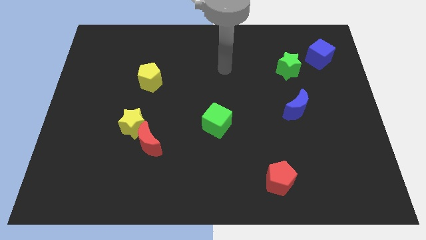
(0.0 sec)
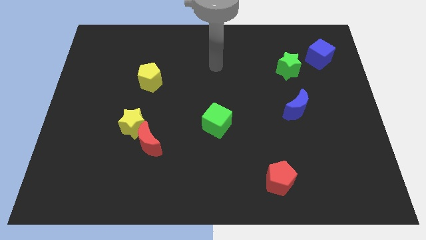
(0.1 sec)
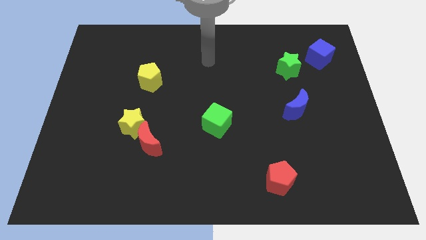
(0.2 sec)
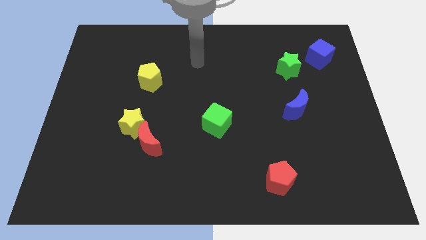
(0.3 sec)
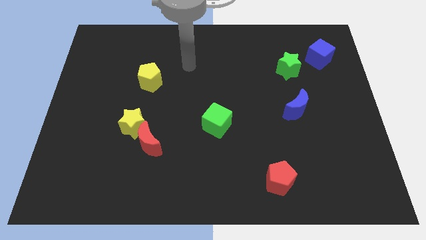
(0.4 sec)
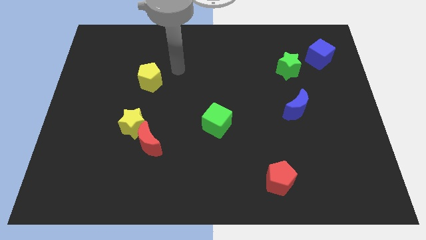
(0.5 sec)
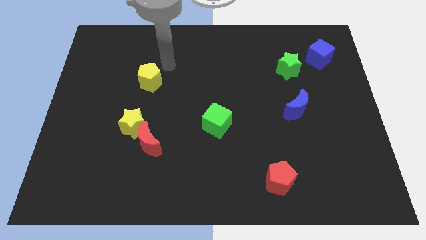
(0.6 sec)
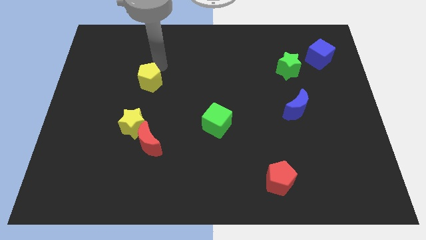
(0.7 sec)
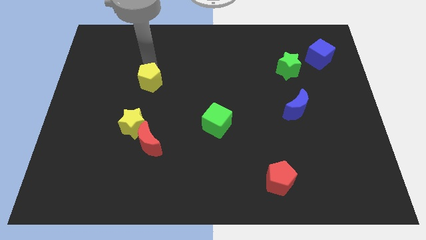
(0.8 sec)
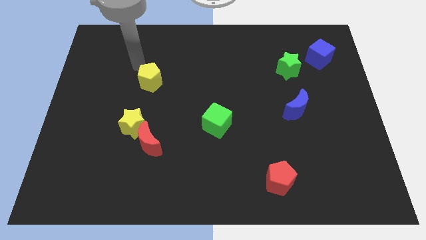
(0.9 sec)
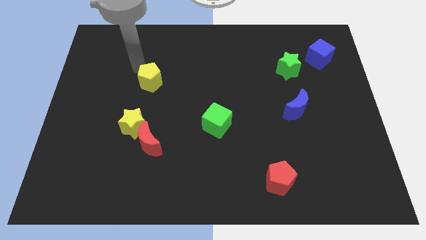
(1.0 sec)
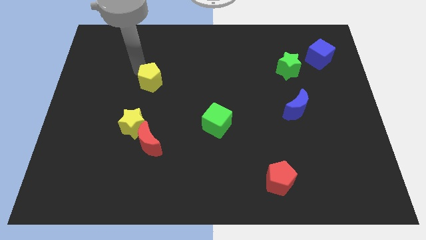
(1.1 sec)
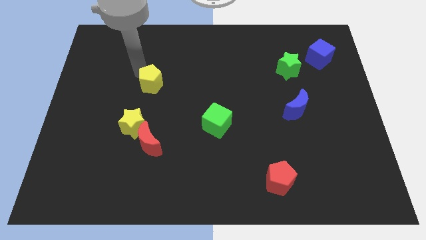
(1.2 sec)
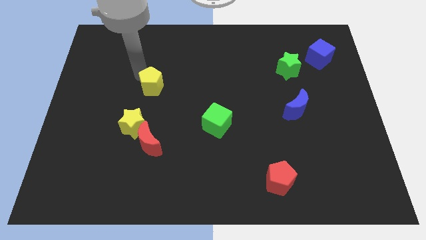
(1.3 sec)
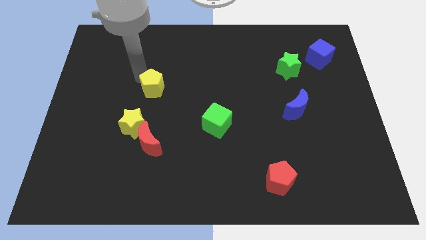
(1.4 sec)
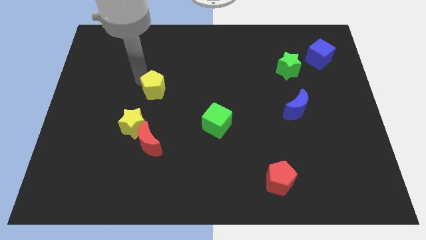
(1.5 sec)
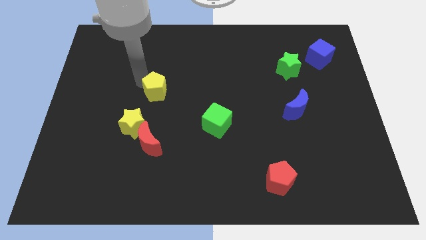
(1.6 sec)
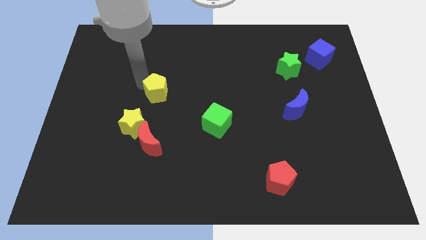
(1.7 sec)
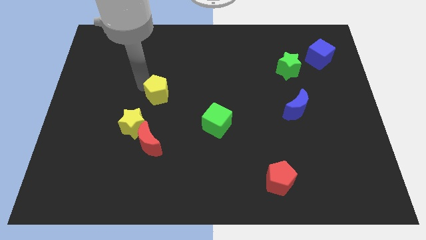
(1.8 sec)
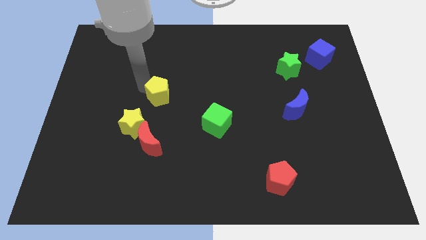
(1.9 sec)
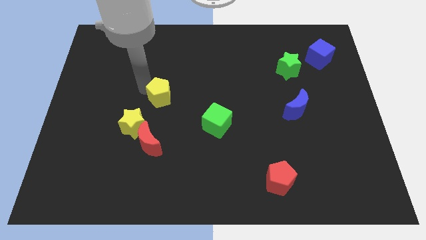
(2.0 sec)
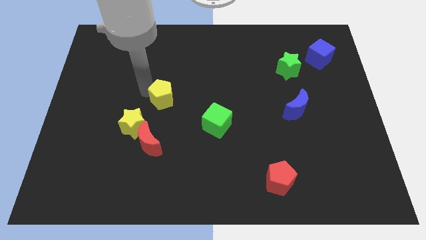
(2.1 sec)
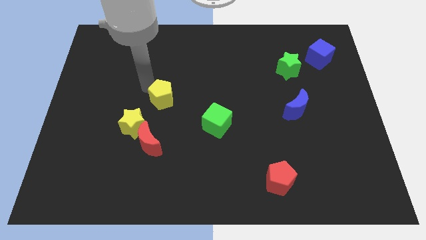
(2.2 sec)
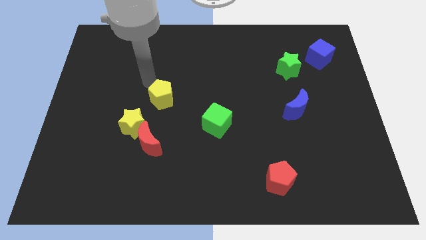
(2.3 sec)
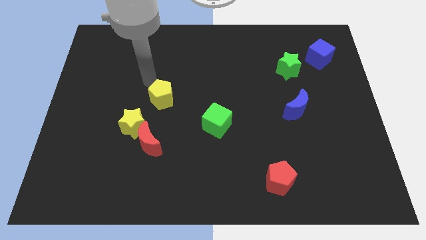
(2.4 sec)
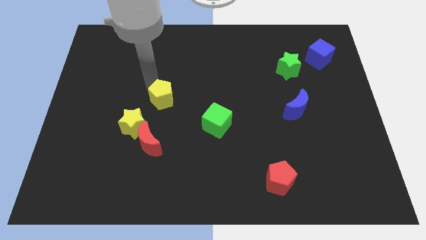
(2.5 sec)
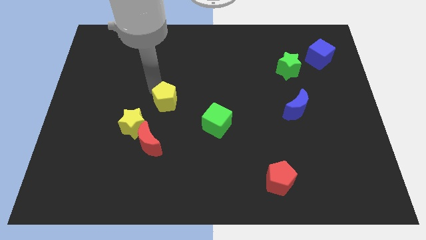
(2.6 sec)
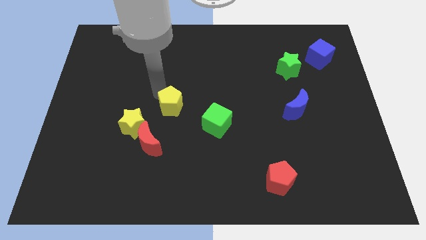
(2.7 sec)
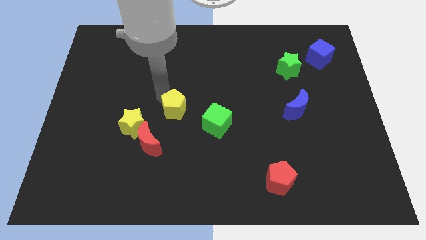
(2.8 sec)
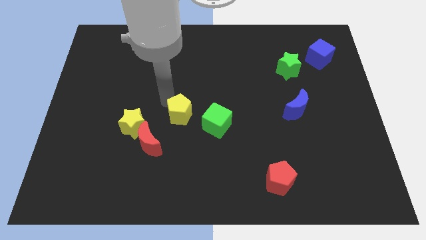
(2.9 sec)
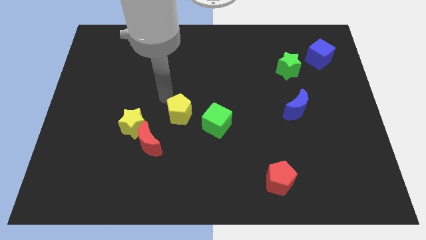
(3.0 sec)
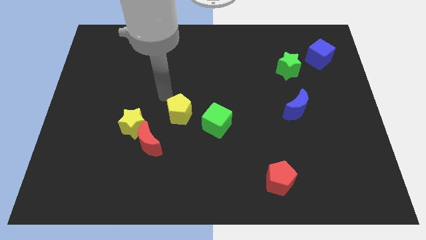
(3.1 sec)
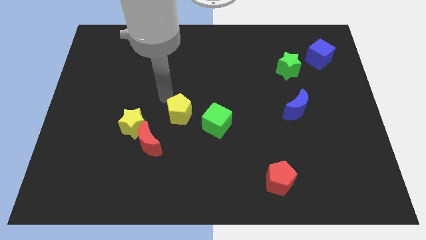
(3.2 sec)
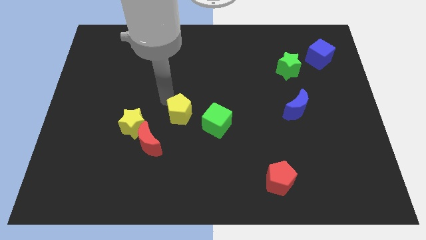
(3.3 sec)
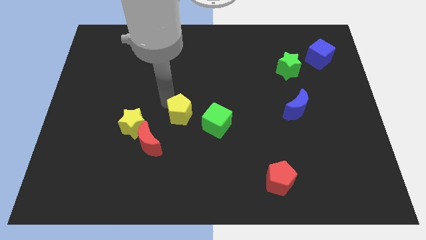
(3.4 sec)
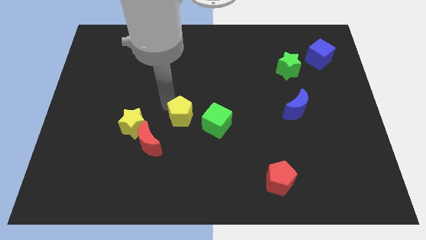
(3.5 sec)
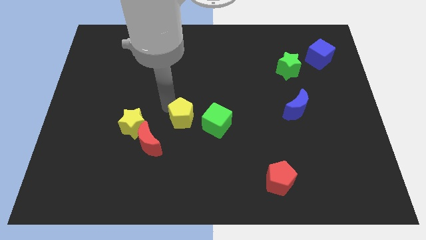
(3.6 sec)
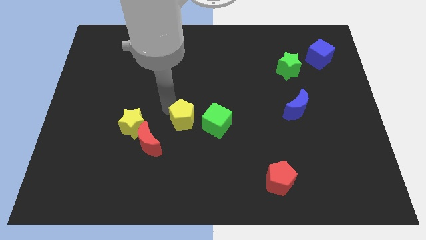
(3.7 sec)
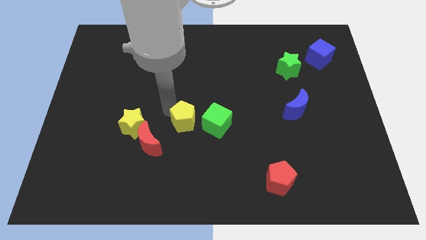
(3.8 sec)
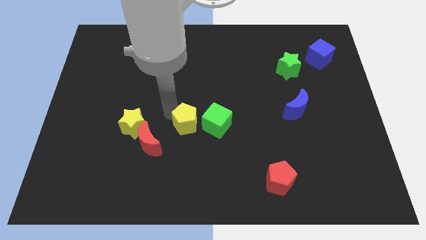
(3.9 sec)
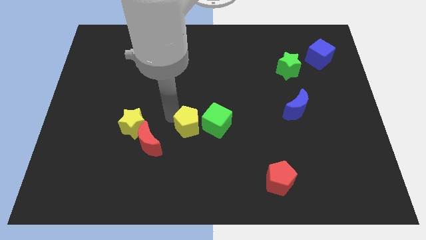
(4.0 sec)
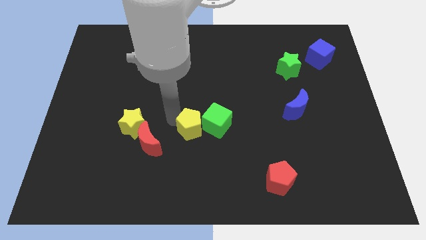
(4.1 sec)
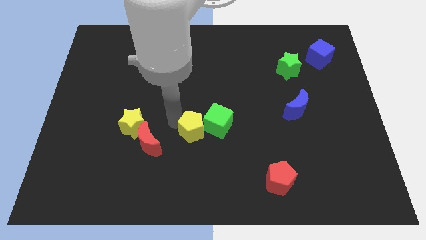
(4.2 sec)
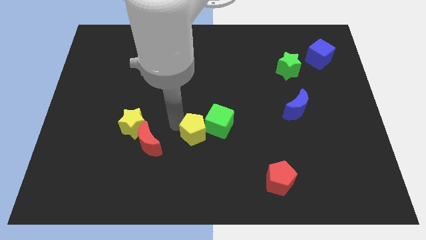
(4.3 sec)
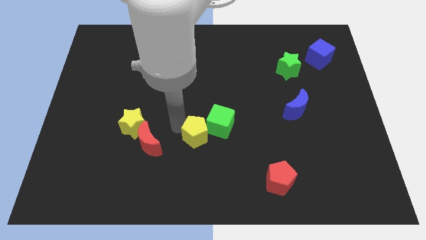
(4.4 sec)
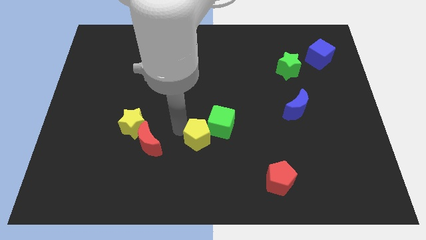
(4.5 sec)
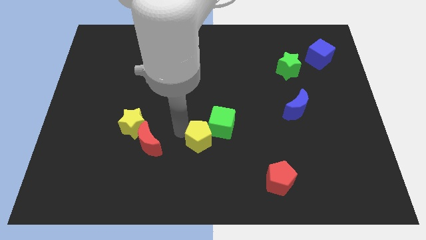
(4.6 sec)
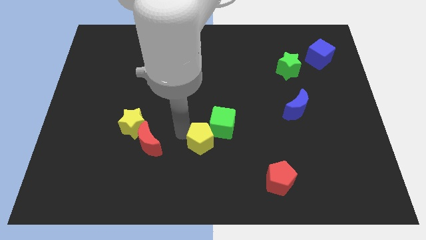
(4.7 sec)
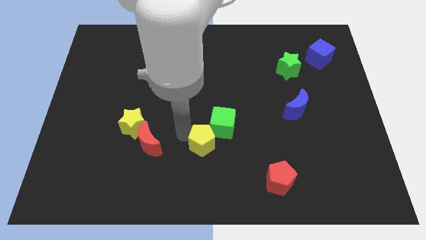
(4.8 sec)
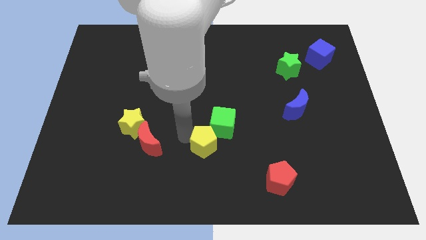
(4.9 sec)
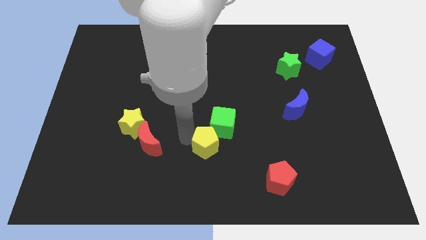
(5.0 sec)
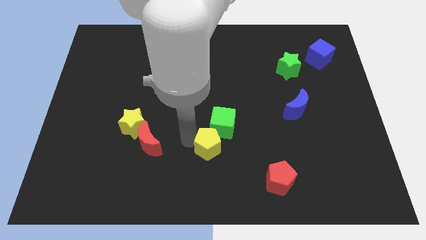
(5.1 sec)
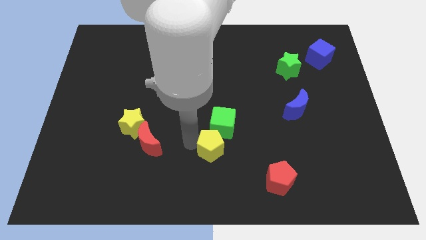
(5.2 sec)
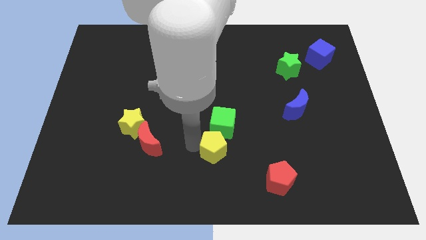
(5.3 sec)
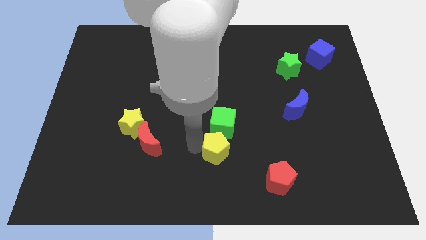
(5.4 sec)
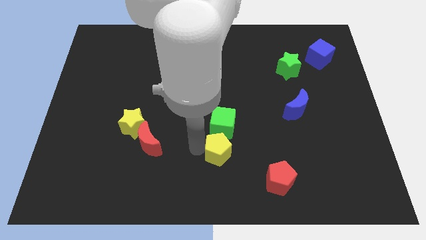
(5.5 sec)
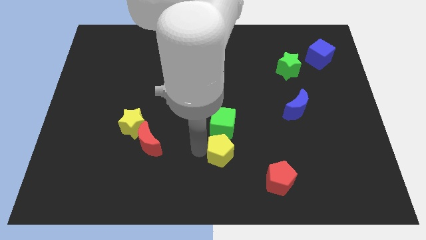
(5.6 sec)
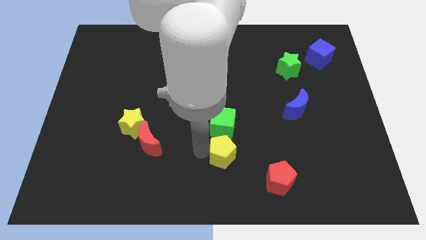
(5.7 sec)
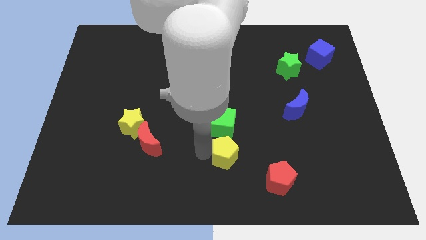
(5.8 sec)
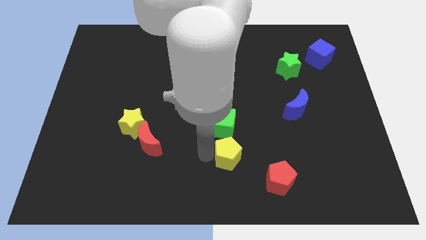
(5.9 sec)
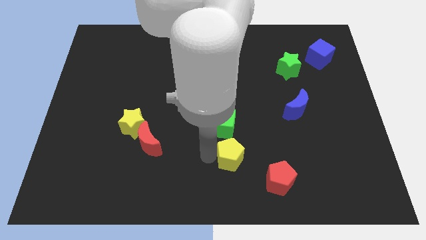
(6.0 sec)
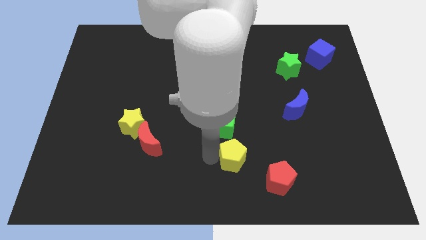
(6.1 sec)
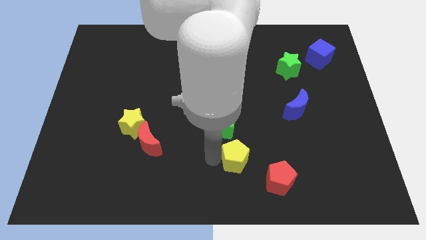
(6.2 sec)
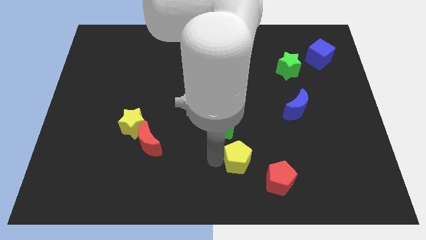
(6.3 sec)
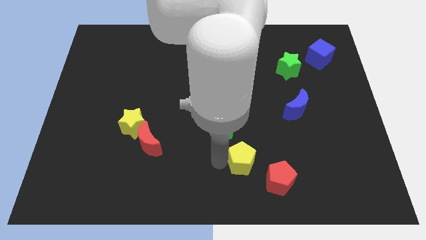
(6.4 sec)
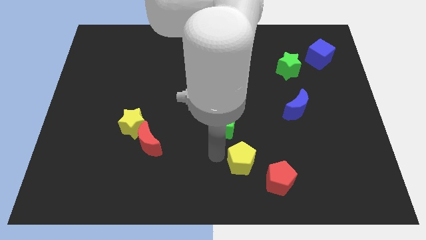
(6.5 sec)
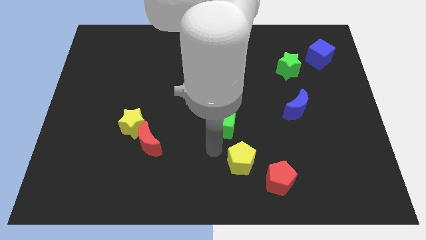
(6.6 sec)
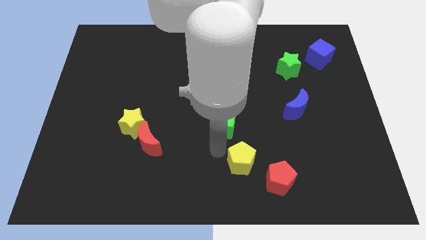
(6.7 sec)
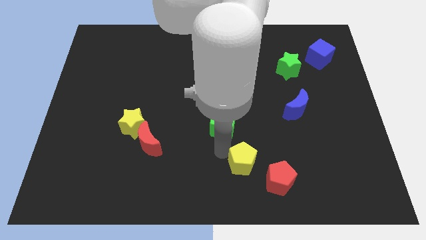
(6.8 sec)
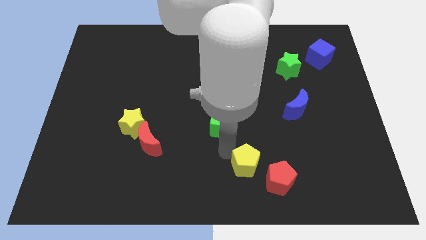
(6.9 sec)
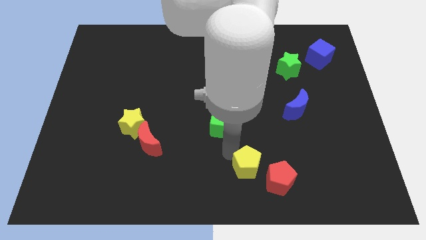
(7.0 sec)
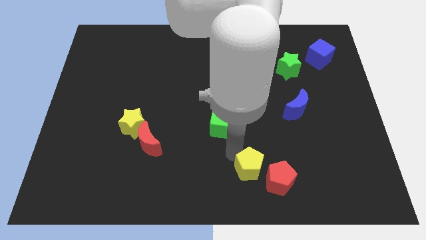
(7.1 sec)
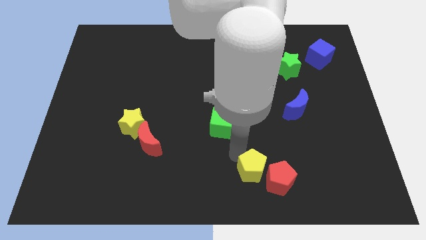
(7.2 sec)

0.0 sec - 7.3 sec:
slide the yellow pentagon close to the red pentagon
